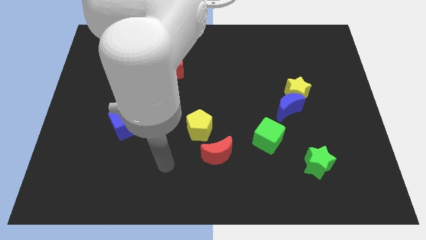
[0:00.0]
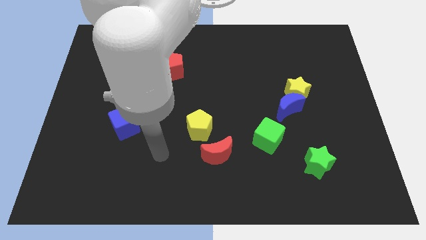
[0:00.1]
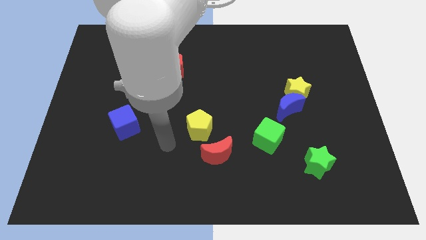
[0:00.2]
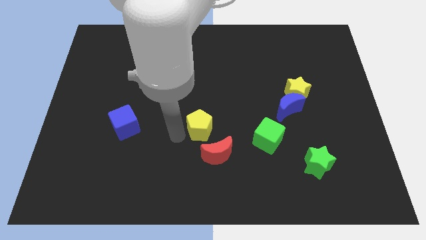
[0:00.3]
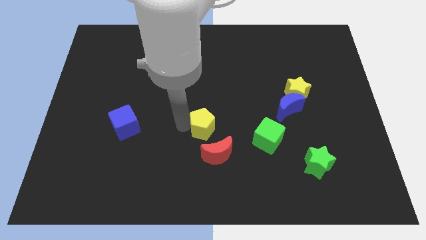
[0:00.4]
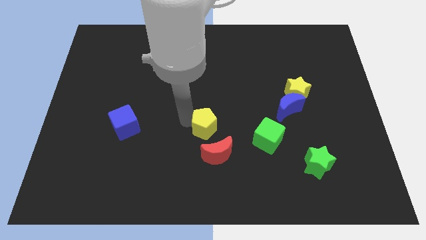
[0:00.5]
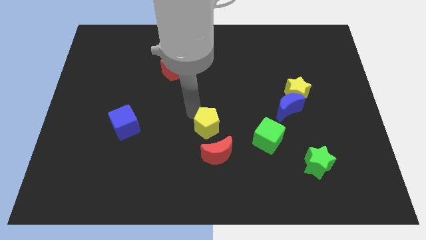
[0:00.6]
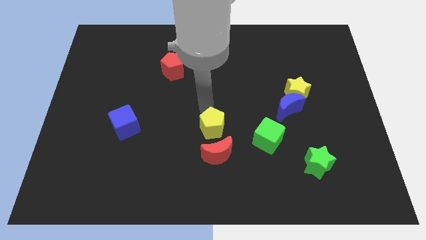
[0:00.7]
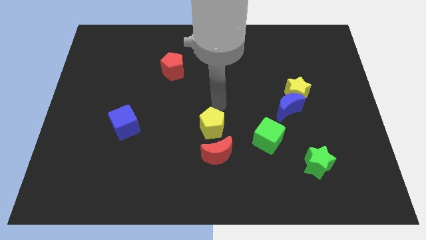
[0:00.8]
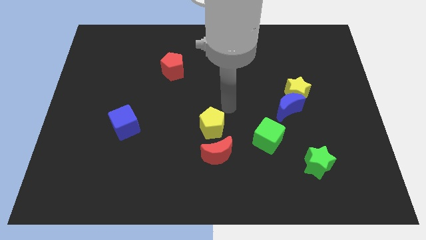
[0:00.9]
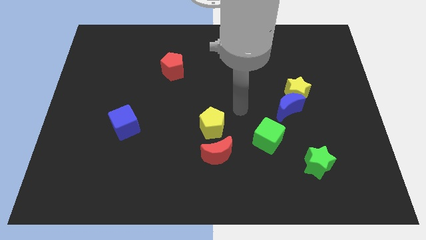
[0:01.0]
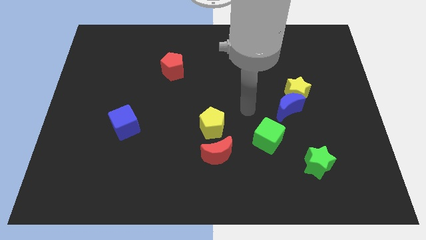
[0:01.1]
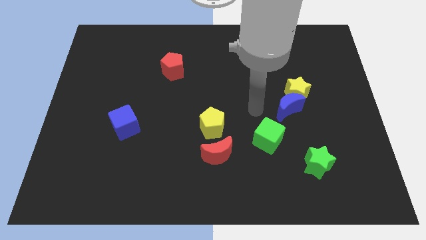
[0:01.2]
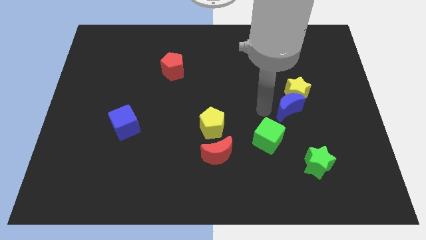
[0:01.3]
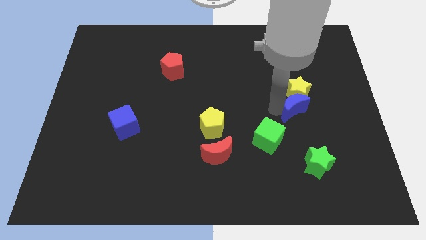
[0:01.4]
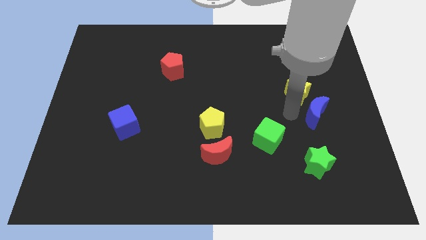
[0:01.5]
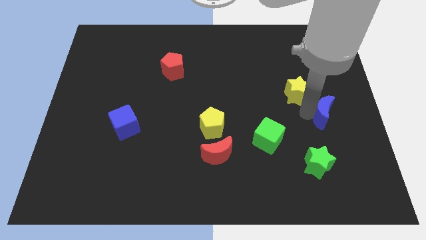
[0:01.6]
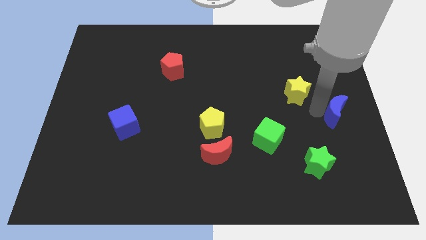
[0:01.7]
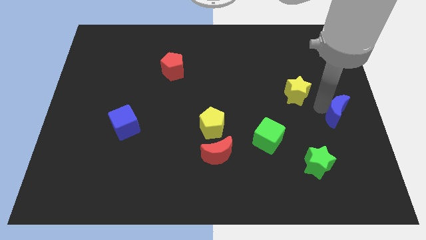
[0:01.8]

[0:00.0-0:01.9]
separate the yellow star from the blue moon

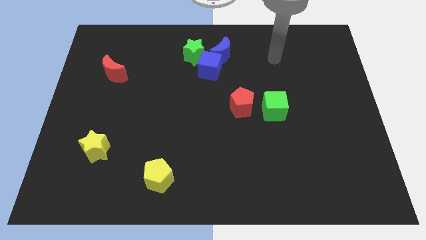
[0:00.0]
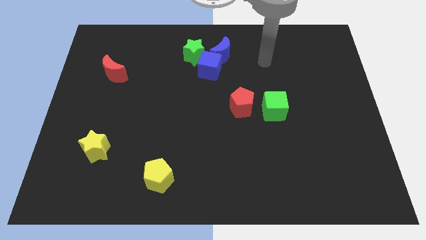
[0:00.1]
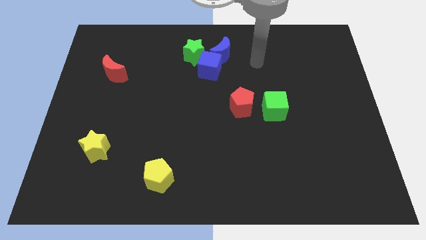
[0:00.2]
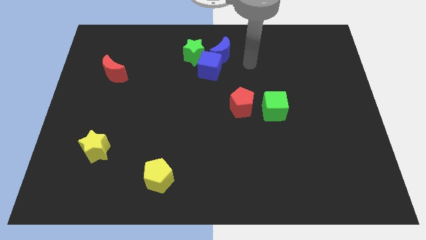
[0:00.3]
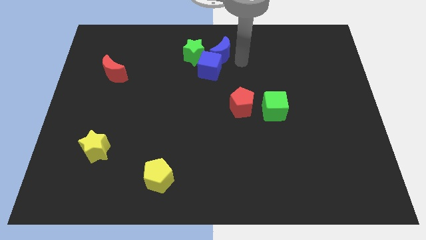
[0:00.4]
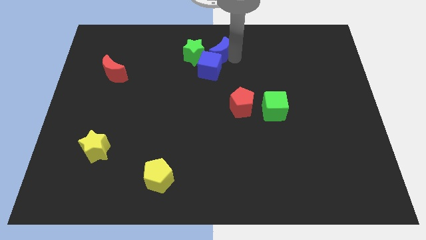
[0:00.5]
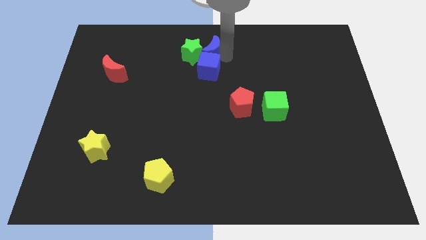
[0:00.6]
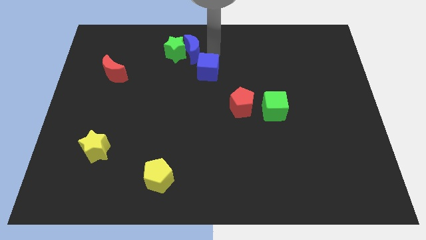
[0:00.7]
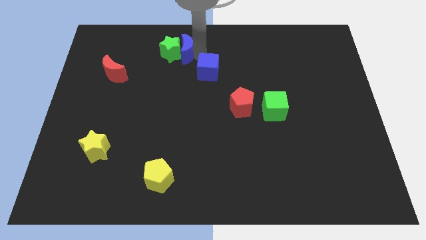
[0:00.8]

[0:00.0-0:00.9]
pull the blue cube apart from the blue moon and green star

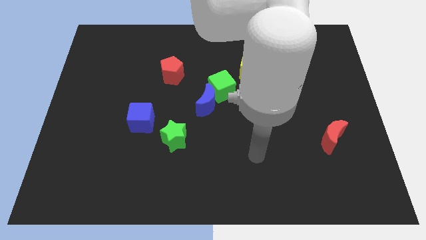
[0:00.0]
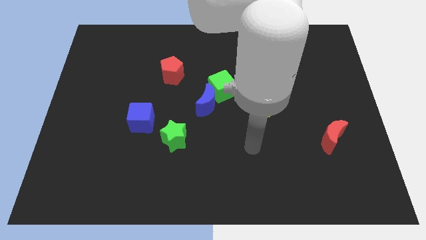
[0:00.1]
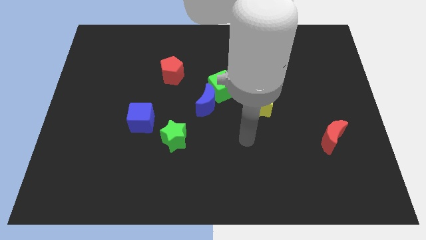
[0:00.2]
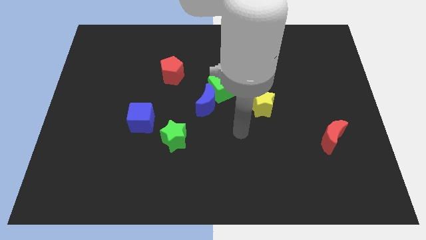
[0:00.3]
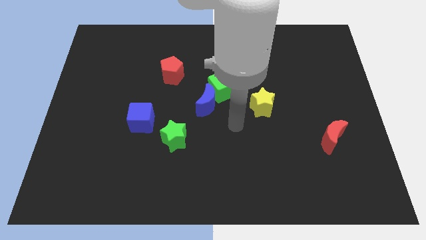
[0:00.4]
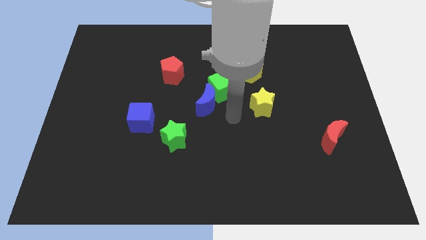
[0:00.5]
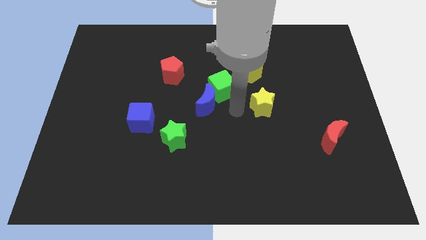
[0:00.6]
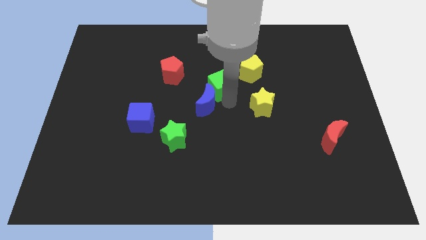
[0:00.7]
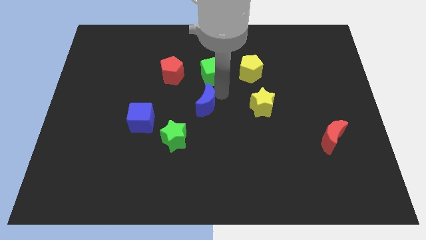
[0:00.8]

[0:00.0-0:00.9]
separate the blue moon from the green cube

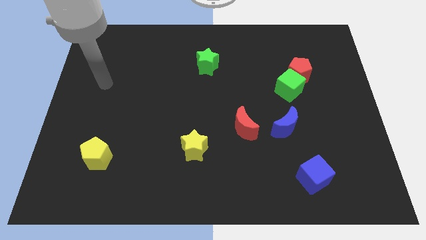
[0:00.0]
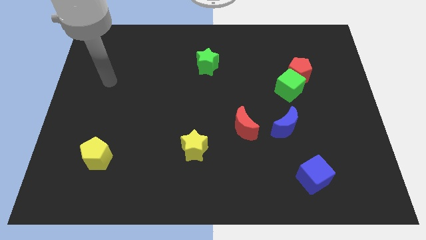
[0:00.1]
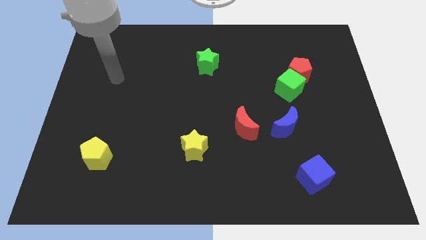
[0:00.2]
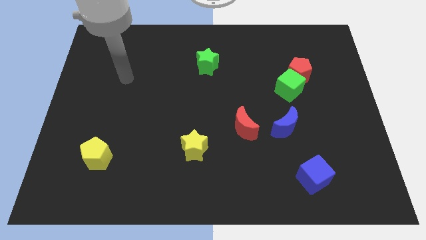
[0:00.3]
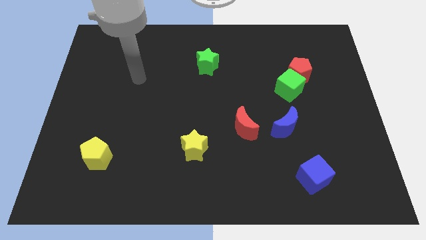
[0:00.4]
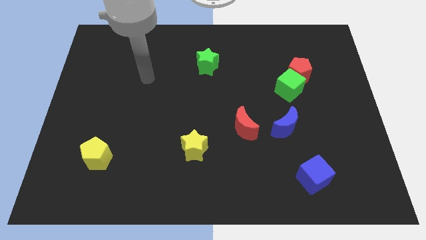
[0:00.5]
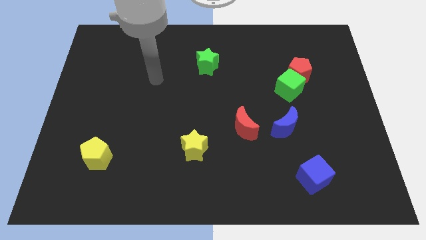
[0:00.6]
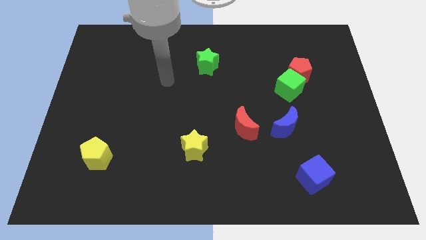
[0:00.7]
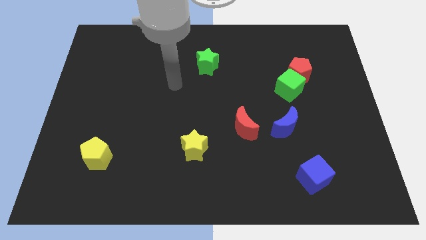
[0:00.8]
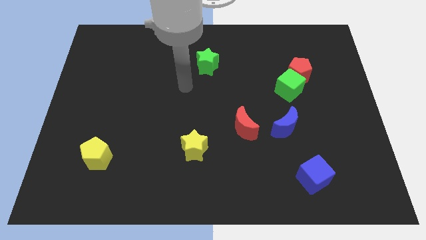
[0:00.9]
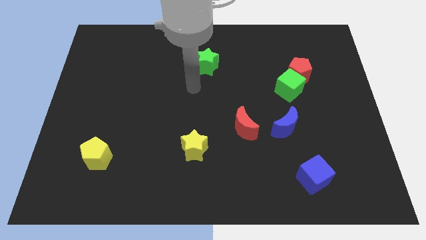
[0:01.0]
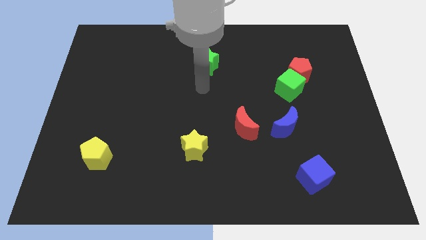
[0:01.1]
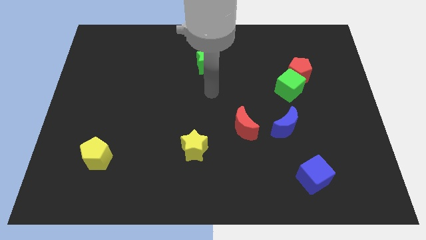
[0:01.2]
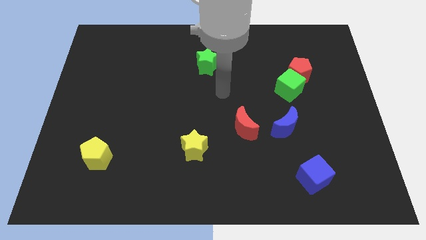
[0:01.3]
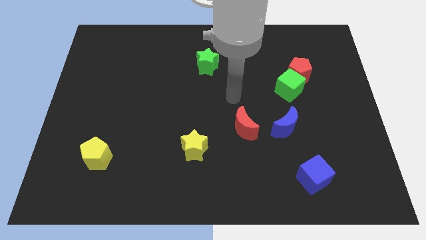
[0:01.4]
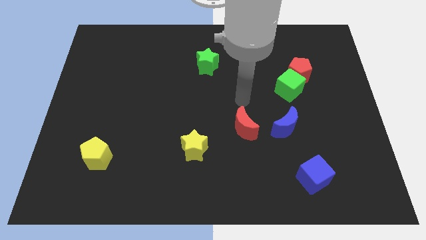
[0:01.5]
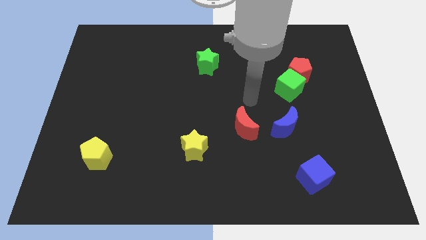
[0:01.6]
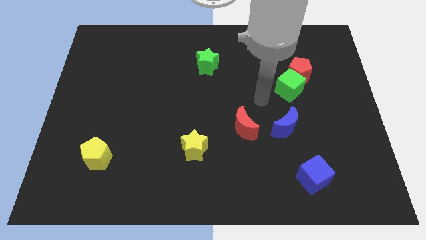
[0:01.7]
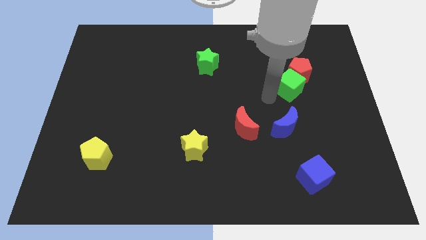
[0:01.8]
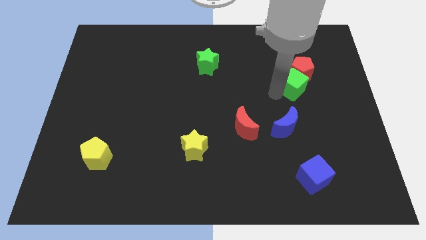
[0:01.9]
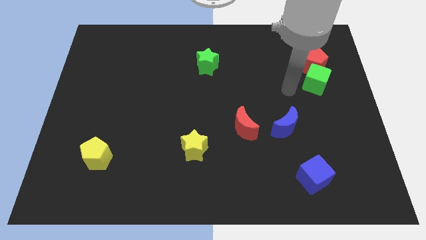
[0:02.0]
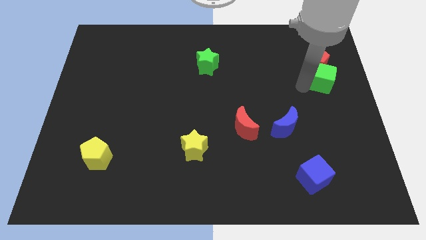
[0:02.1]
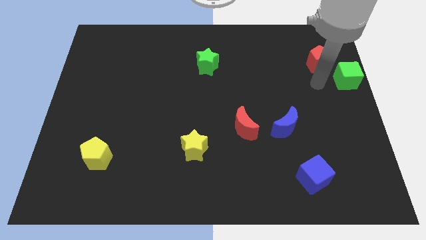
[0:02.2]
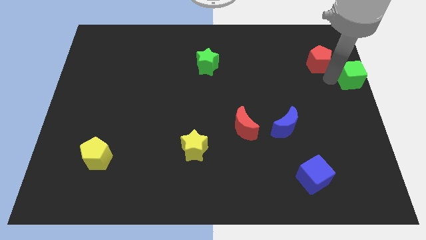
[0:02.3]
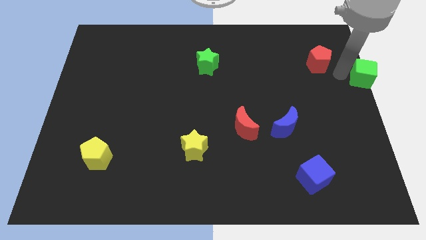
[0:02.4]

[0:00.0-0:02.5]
separate the red pentagon from the green cube

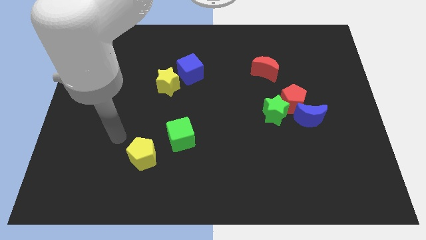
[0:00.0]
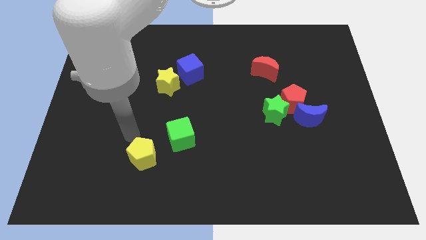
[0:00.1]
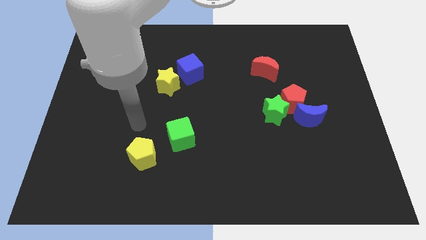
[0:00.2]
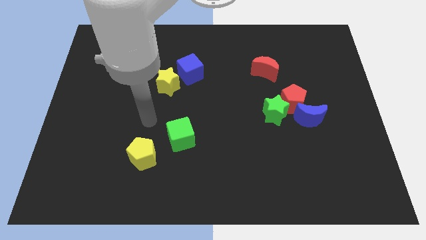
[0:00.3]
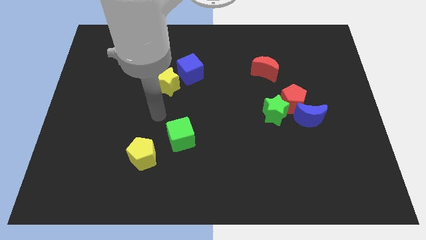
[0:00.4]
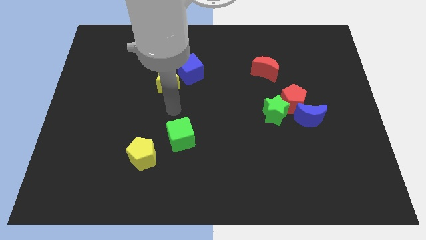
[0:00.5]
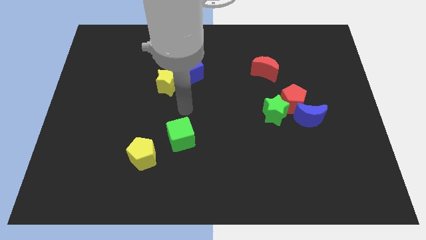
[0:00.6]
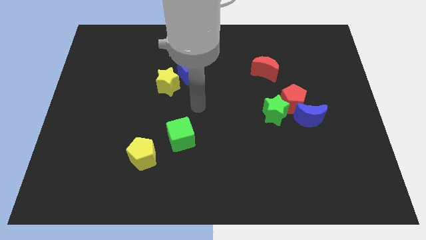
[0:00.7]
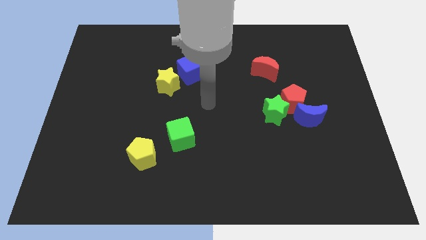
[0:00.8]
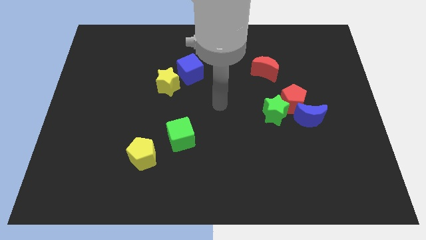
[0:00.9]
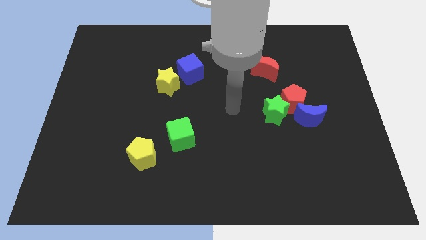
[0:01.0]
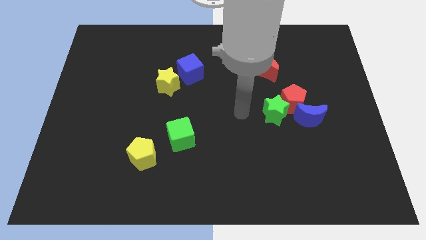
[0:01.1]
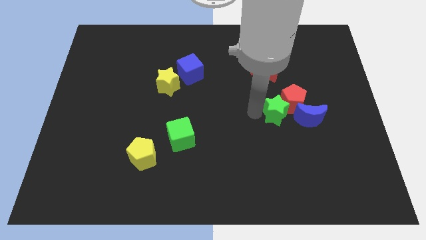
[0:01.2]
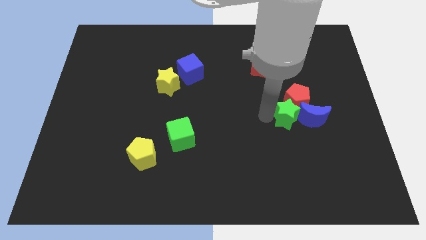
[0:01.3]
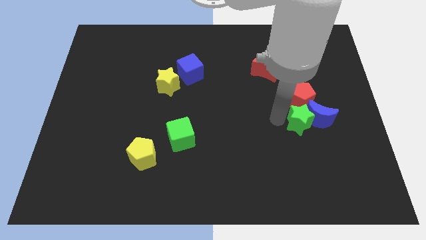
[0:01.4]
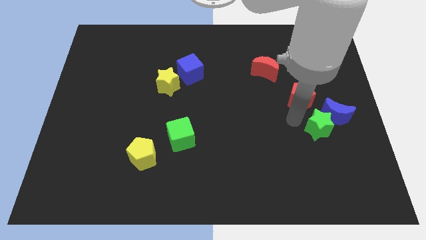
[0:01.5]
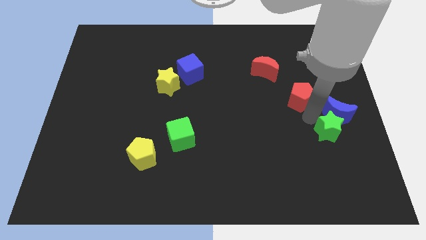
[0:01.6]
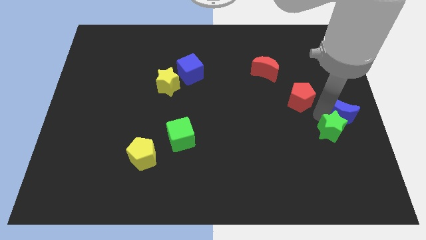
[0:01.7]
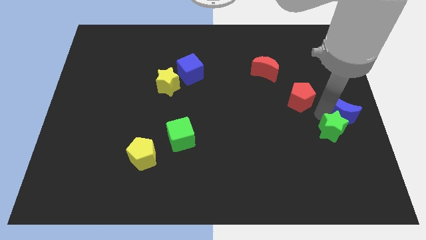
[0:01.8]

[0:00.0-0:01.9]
move the red pentagon away from the blue moon and green star

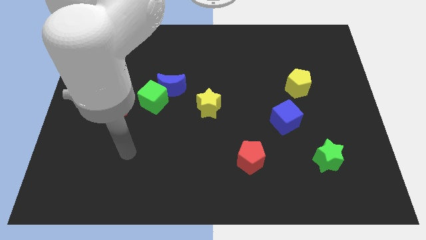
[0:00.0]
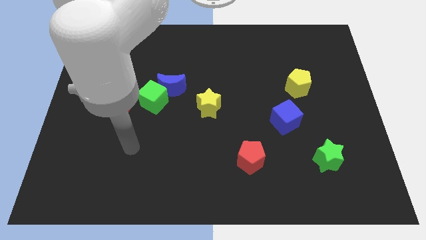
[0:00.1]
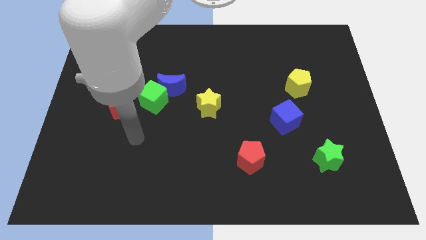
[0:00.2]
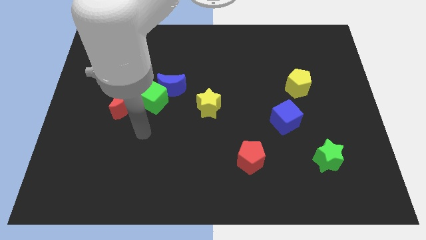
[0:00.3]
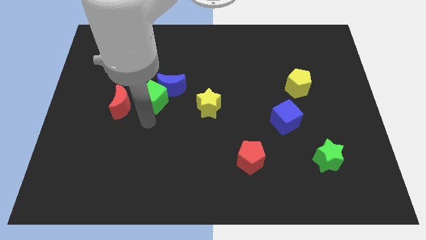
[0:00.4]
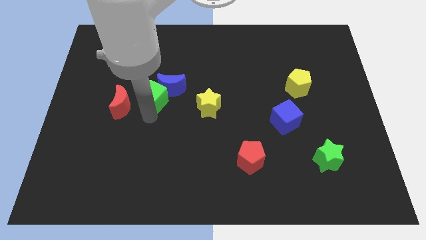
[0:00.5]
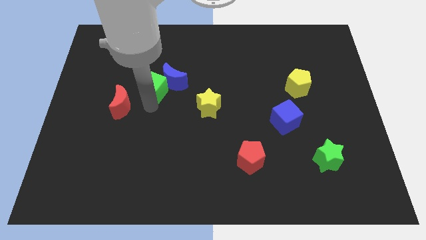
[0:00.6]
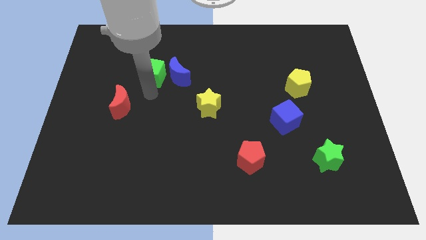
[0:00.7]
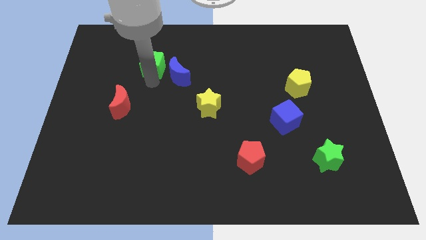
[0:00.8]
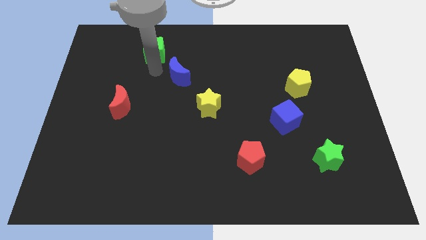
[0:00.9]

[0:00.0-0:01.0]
pull the blue moon apart from the green cube

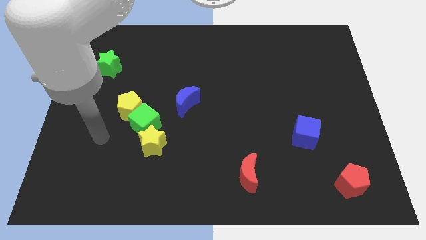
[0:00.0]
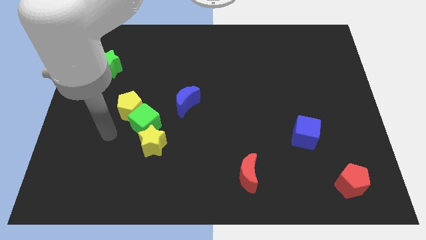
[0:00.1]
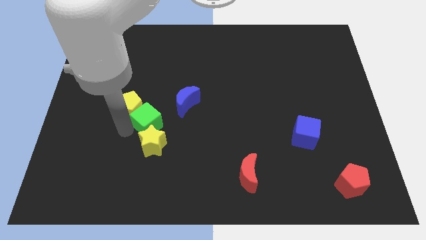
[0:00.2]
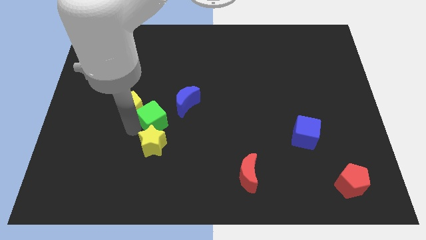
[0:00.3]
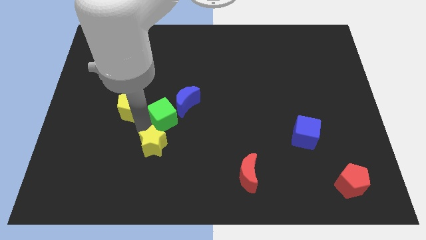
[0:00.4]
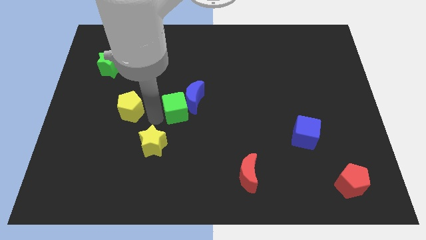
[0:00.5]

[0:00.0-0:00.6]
separate the yellow pentagon from the green cube
